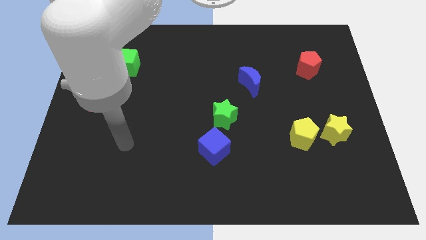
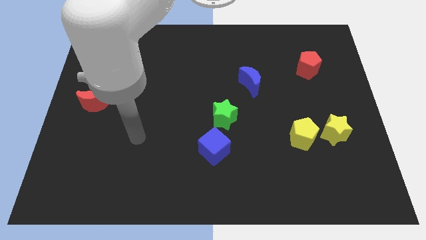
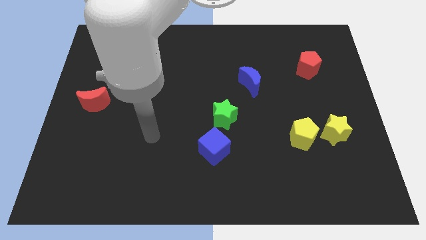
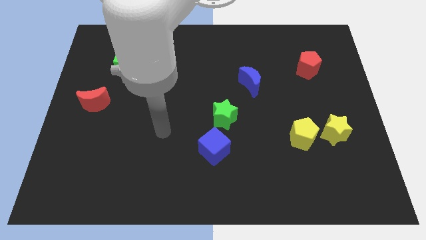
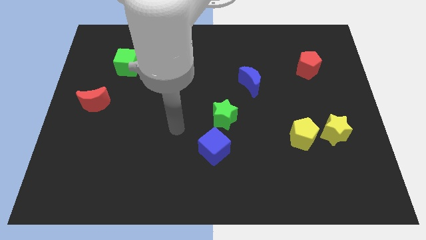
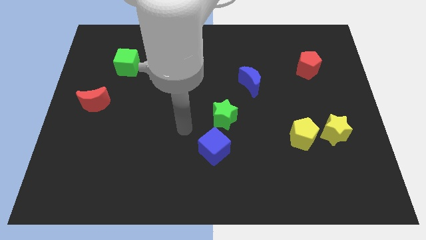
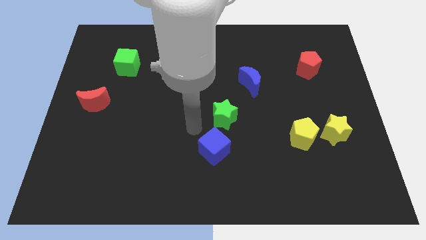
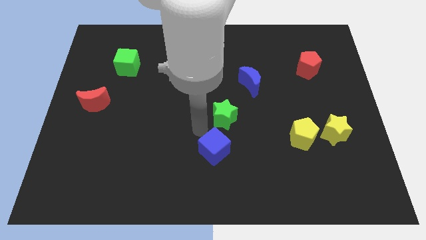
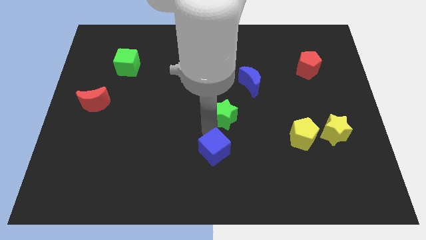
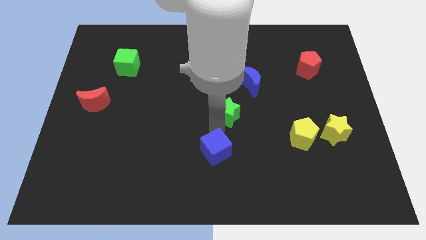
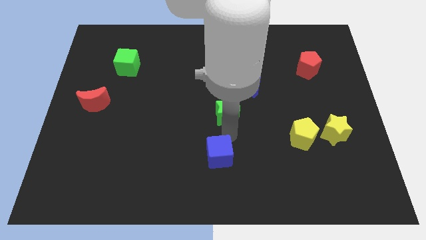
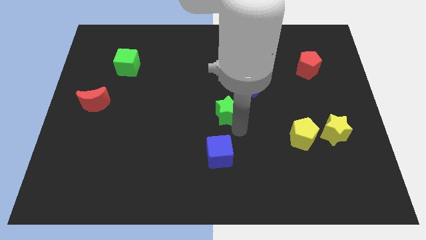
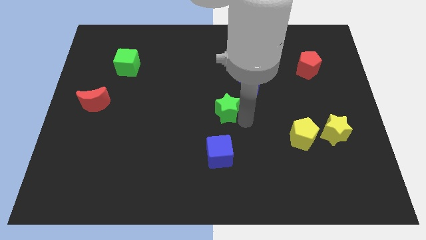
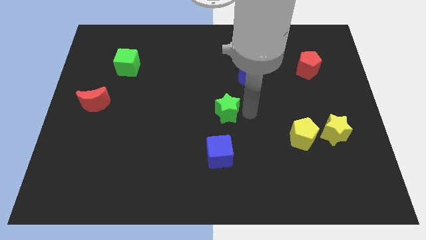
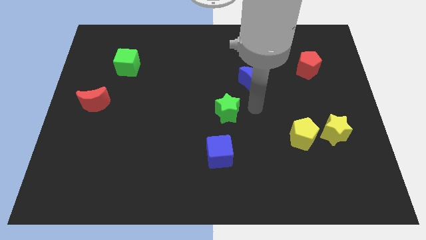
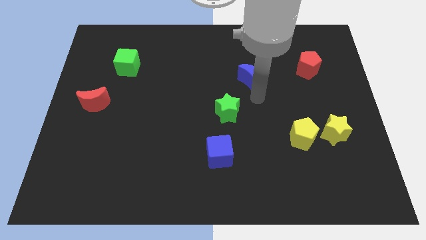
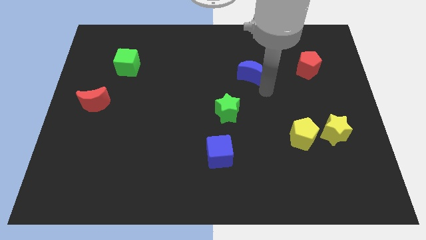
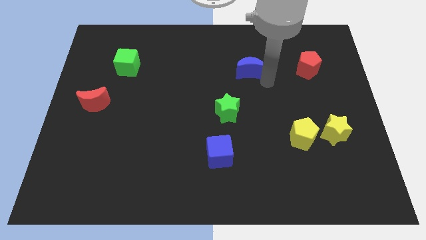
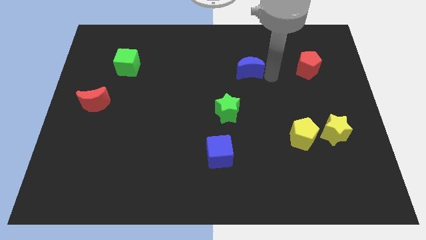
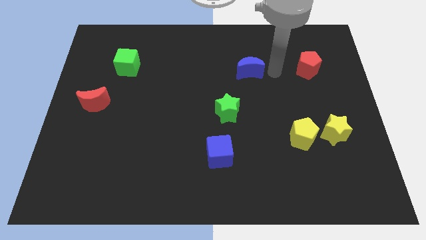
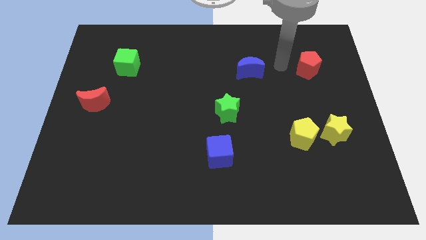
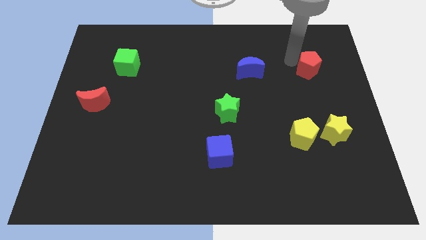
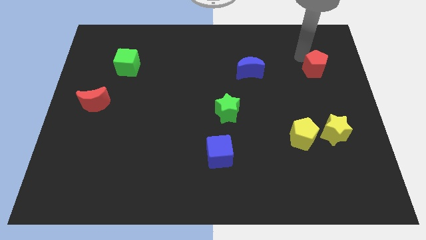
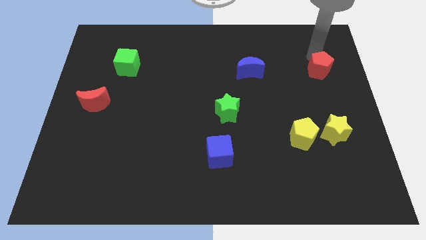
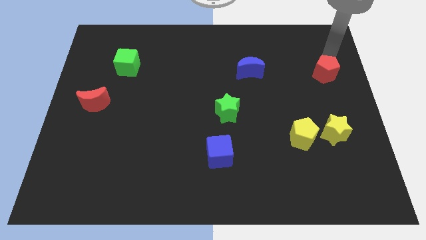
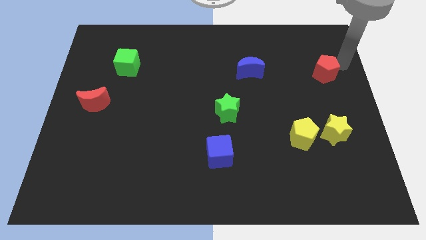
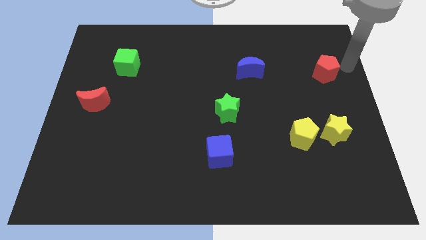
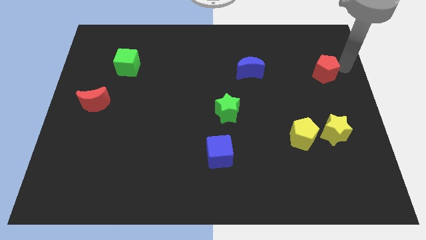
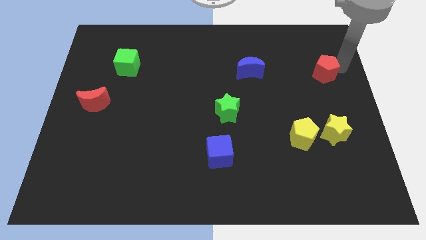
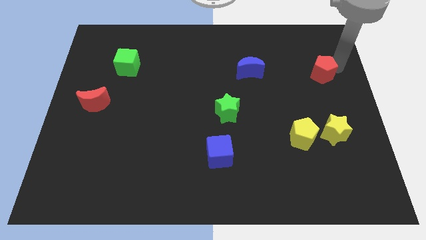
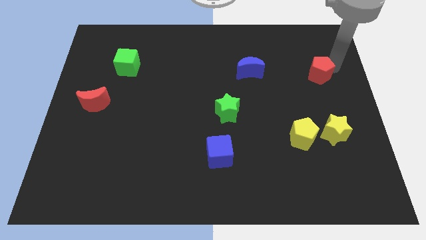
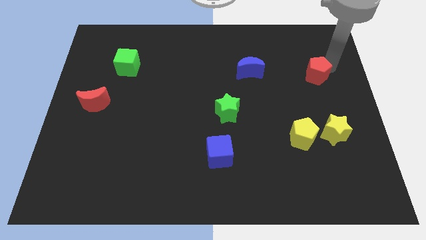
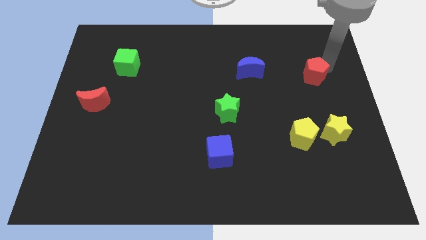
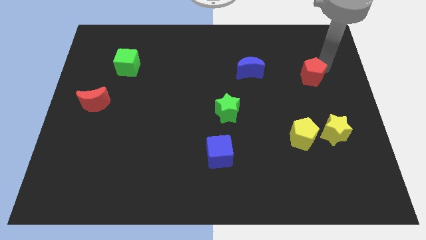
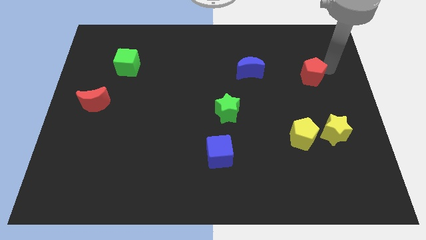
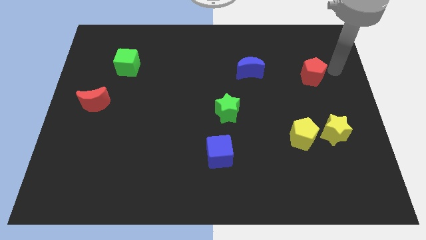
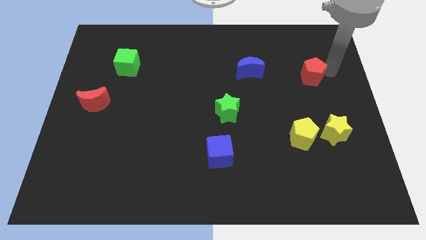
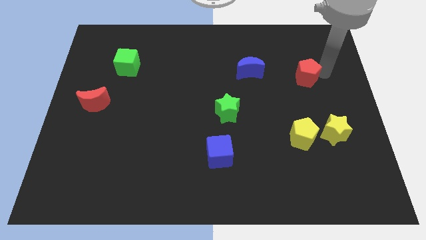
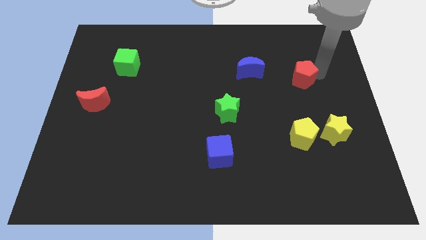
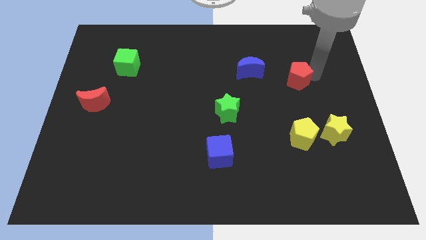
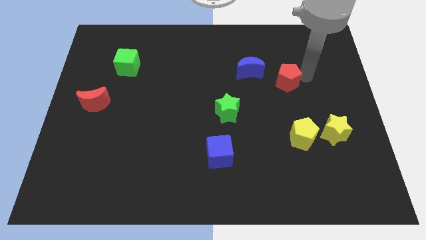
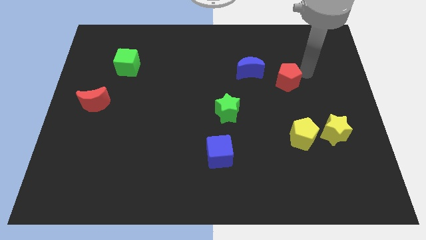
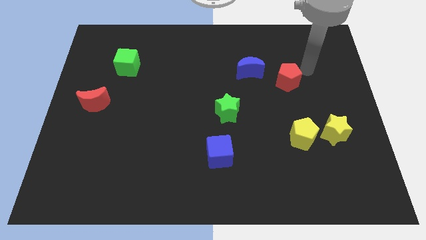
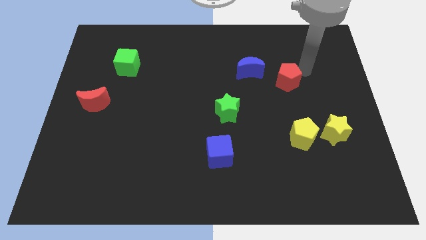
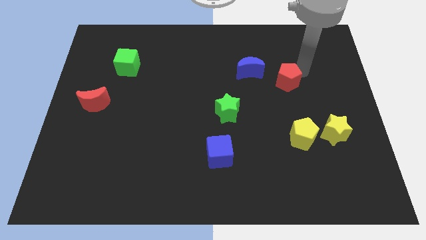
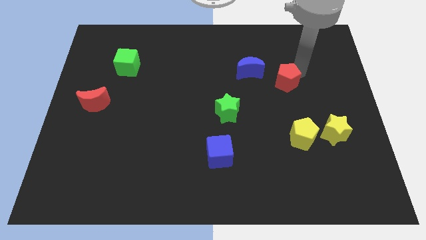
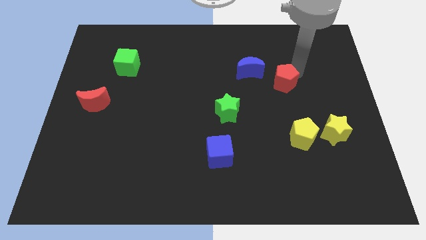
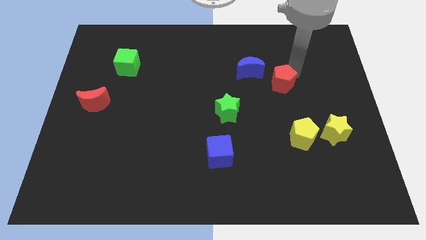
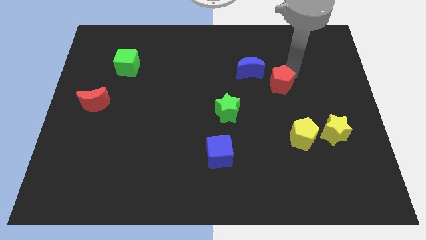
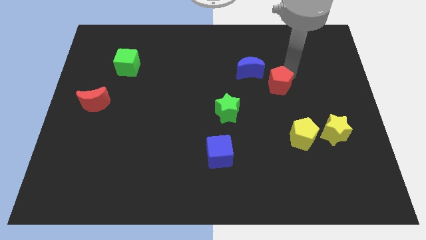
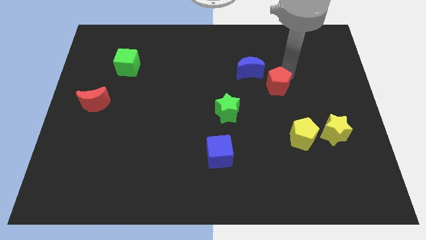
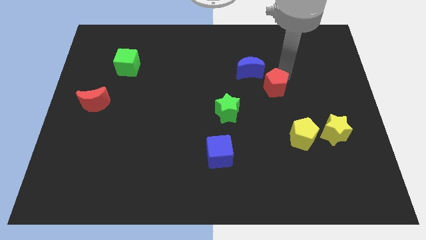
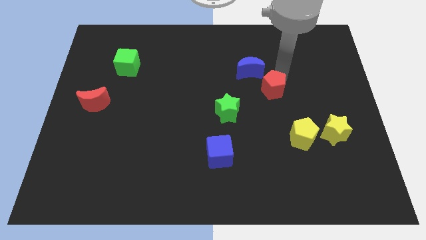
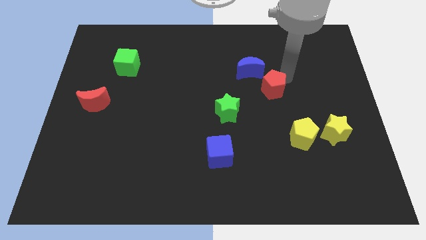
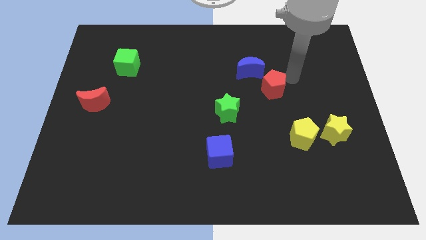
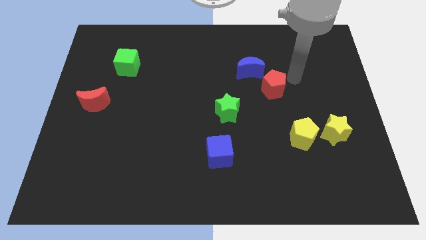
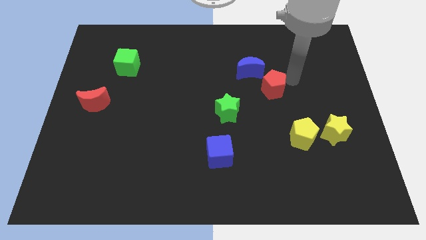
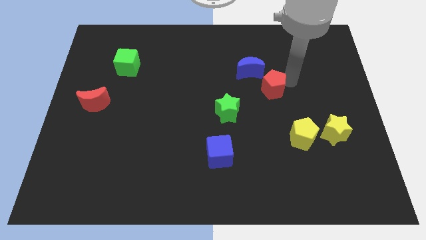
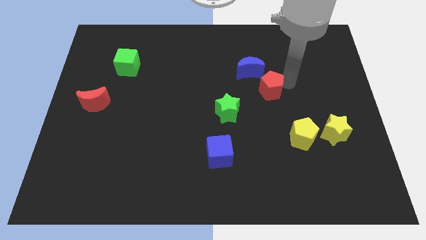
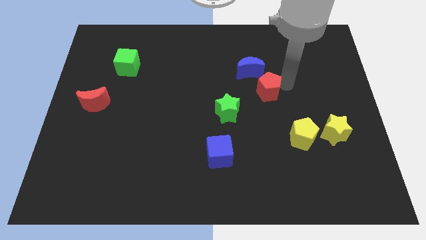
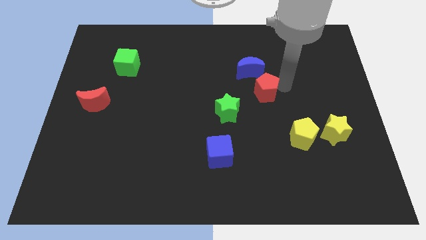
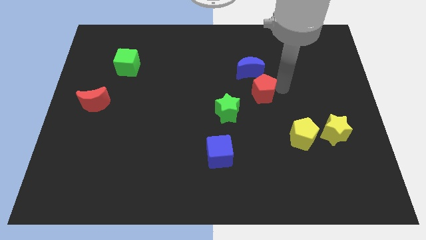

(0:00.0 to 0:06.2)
push the red pentagon to the middle of the board

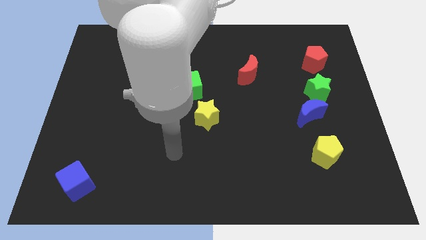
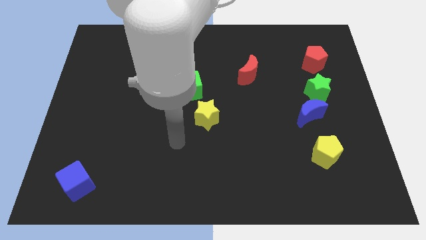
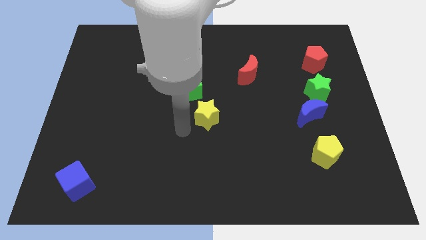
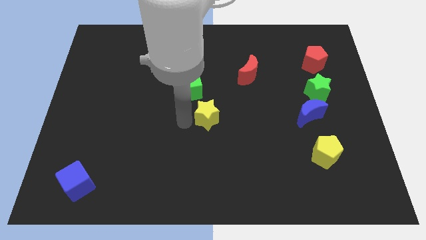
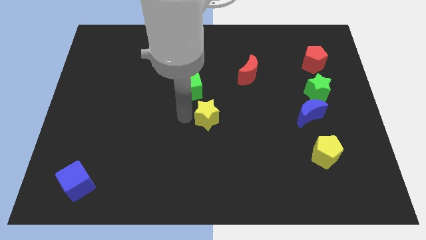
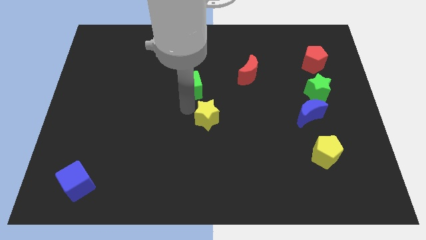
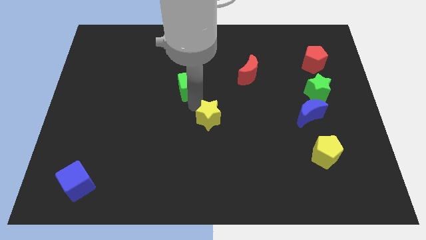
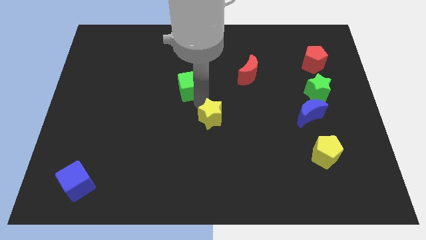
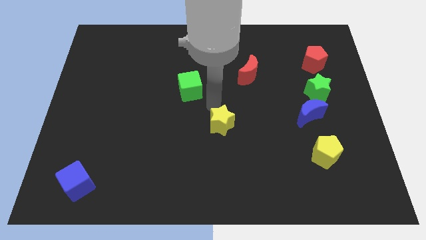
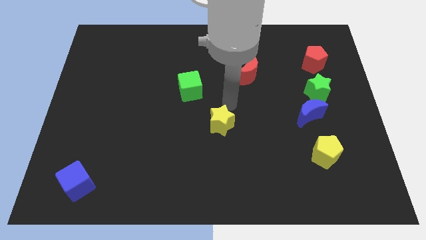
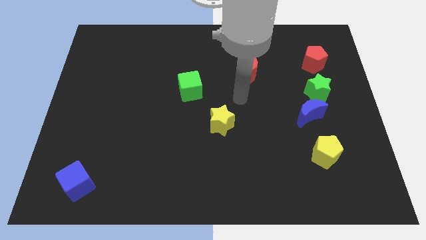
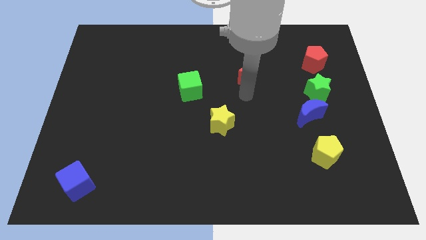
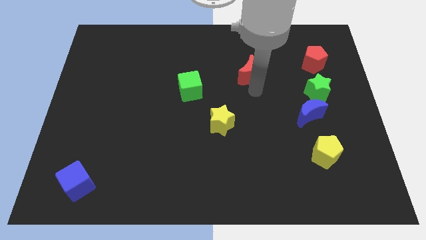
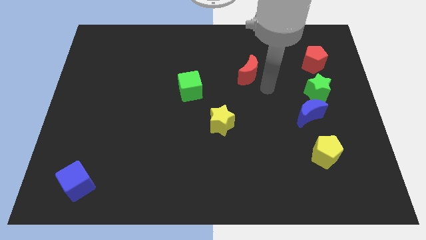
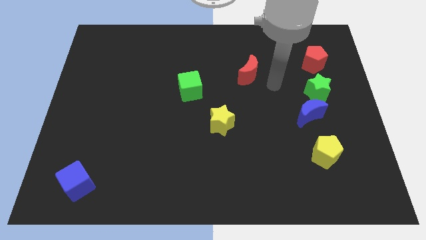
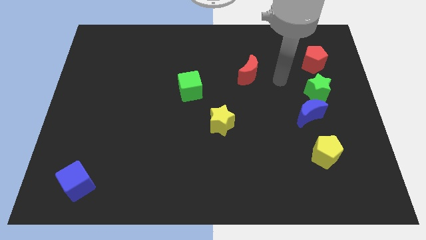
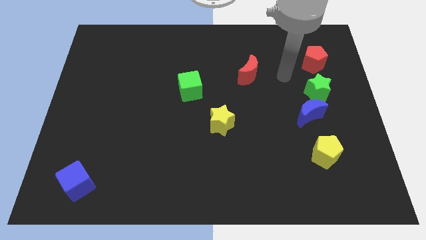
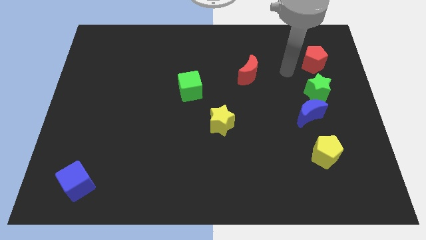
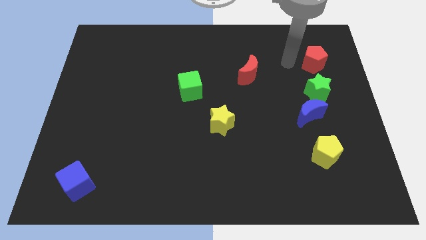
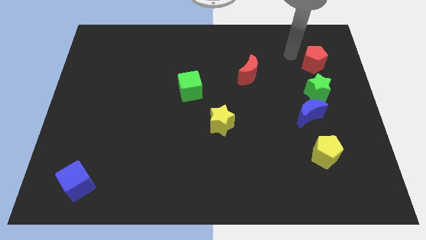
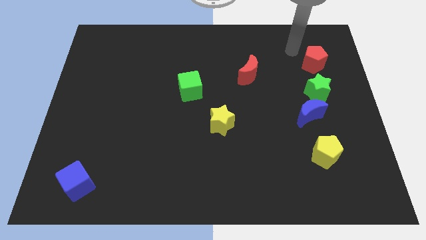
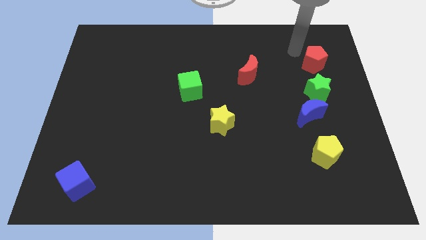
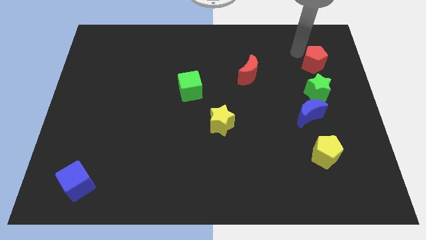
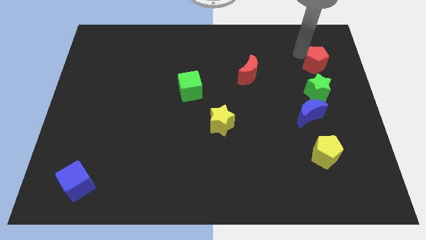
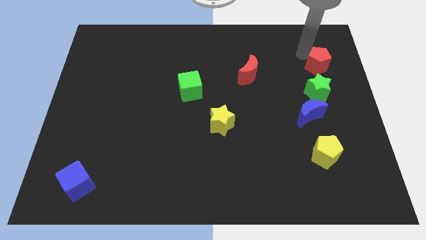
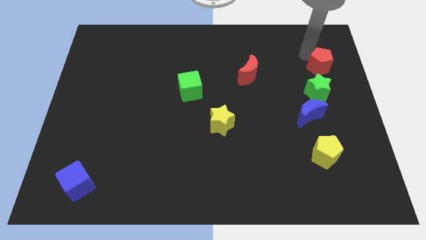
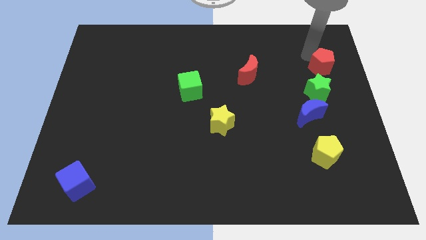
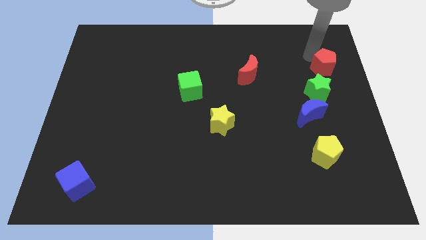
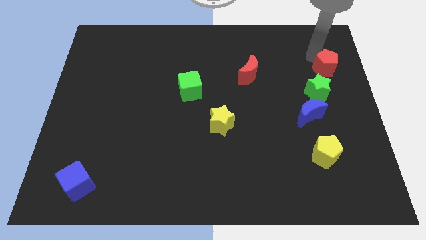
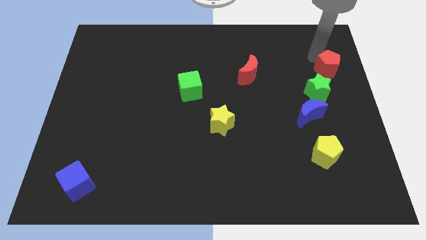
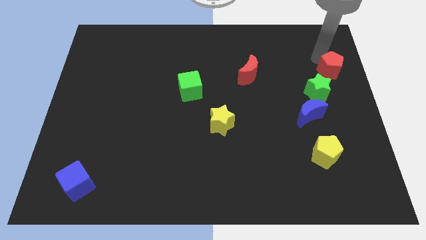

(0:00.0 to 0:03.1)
move the red pentagon to the right side
